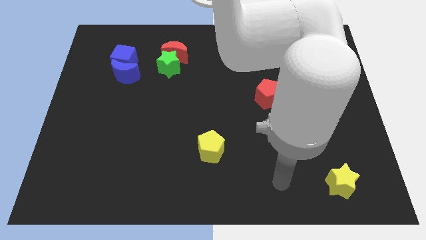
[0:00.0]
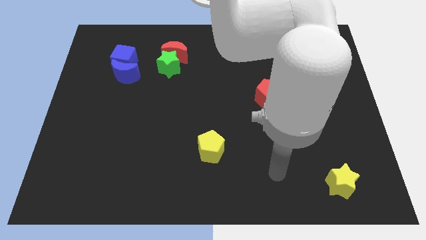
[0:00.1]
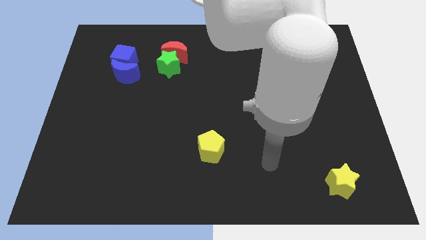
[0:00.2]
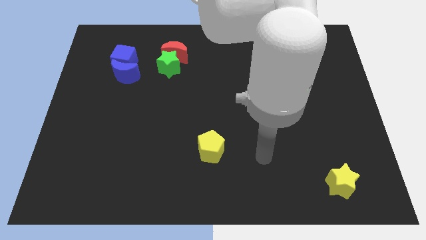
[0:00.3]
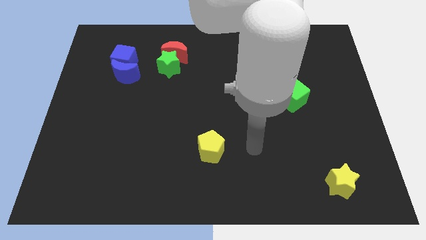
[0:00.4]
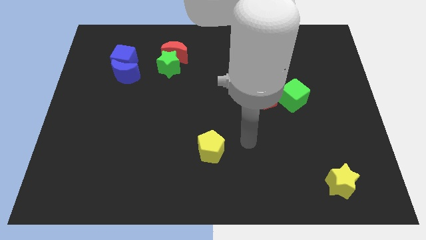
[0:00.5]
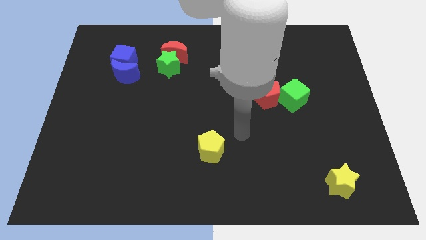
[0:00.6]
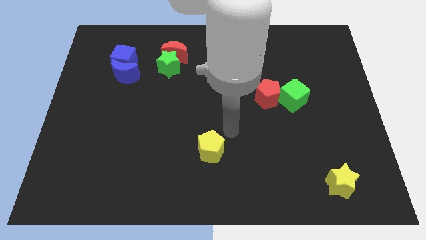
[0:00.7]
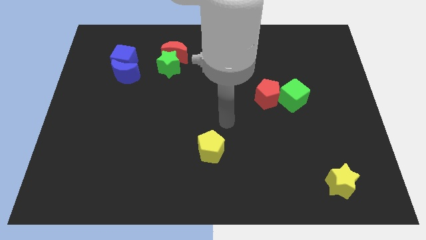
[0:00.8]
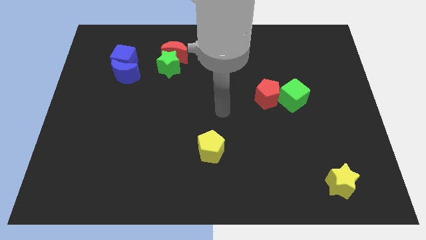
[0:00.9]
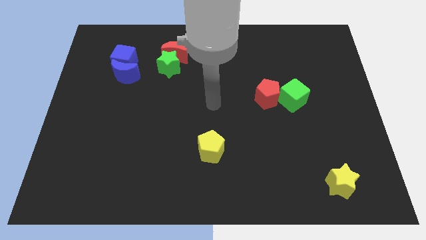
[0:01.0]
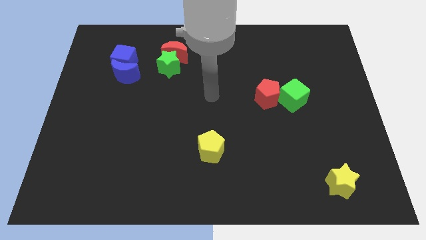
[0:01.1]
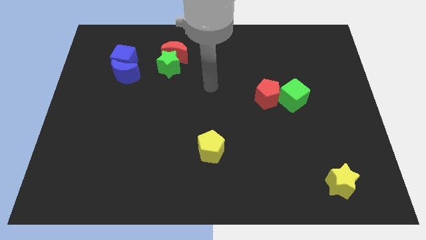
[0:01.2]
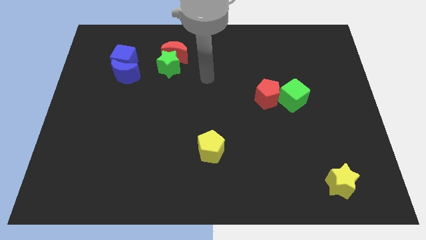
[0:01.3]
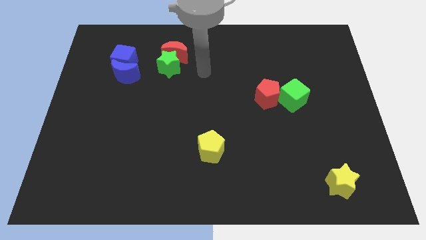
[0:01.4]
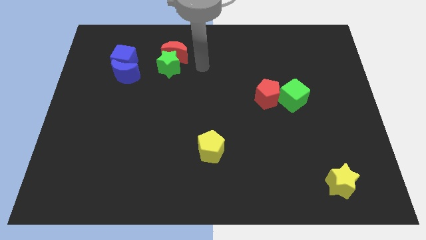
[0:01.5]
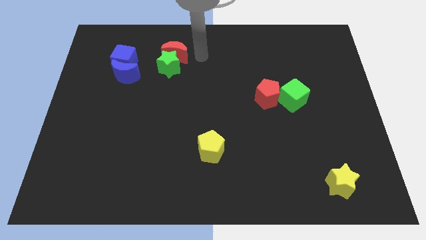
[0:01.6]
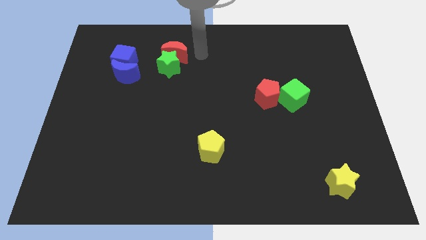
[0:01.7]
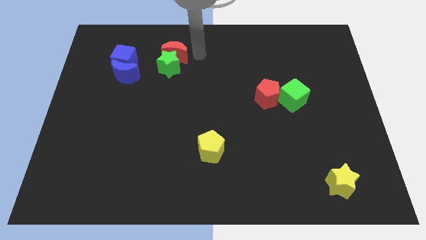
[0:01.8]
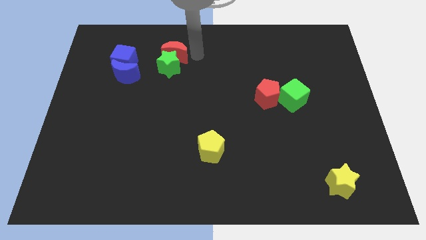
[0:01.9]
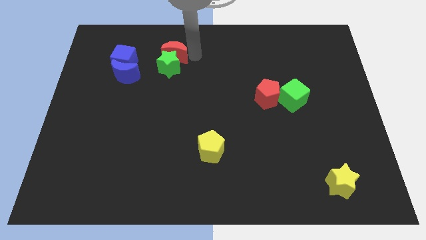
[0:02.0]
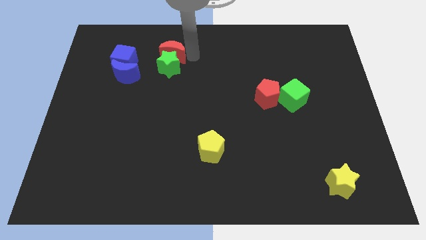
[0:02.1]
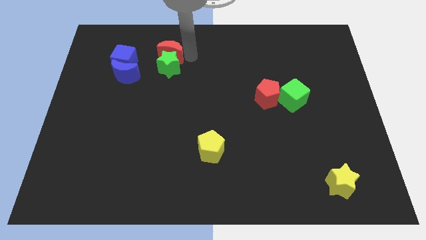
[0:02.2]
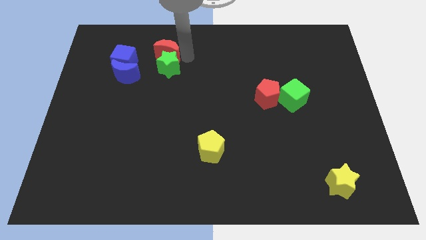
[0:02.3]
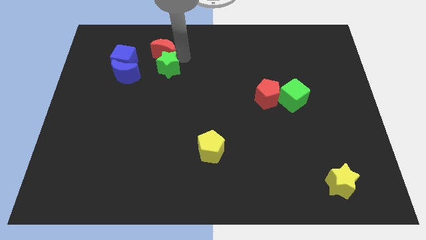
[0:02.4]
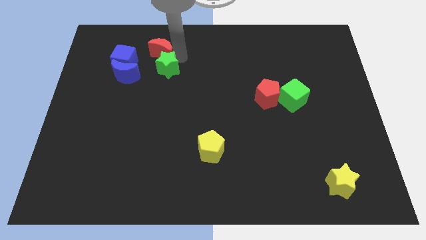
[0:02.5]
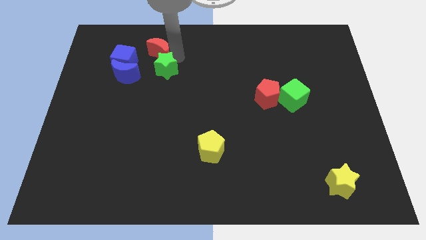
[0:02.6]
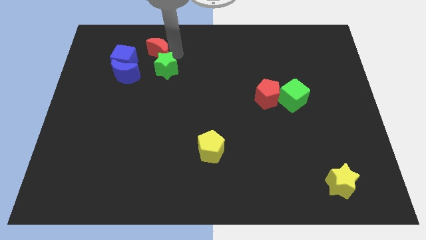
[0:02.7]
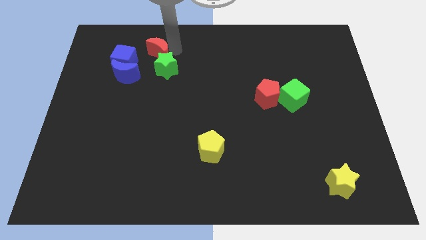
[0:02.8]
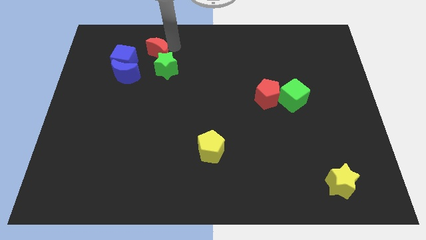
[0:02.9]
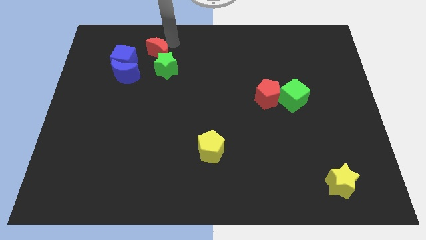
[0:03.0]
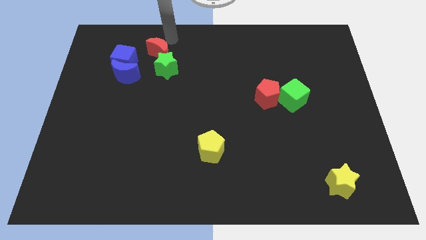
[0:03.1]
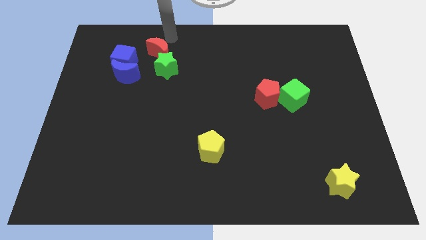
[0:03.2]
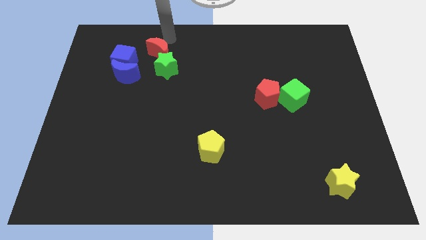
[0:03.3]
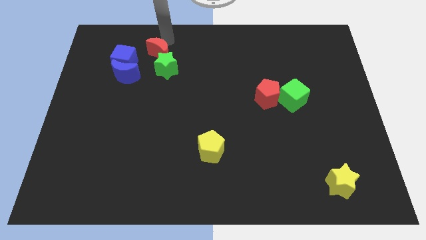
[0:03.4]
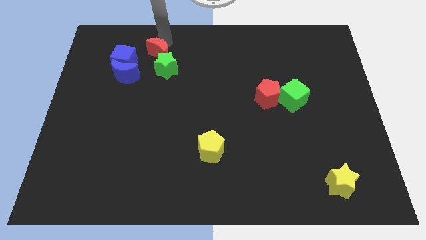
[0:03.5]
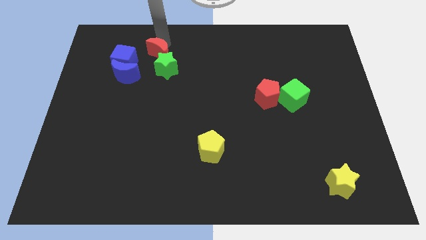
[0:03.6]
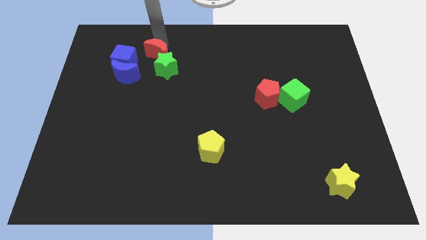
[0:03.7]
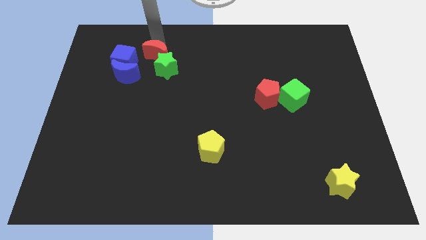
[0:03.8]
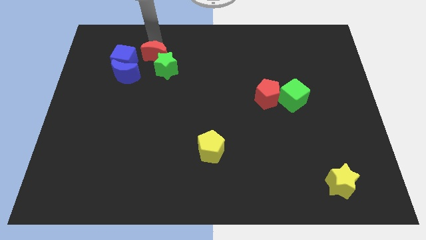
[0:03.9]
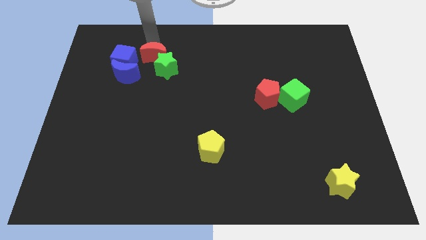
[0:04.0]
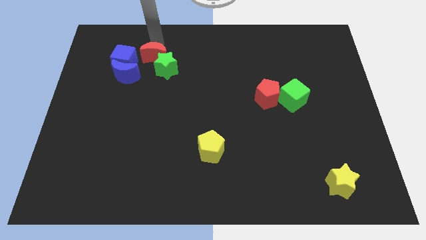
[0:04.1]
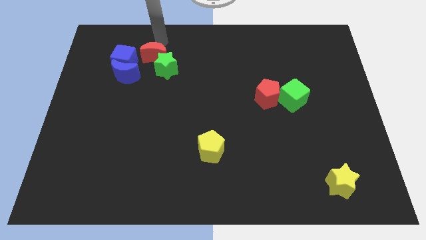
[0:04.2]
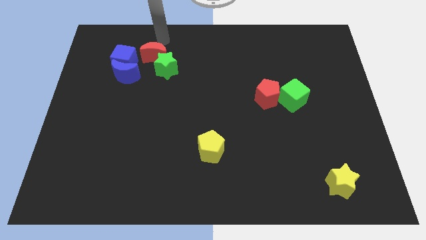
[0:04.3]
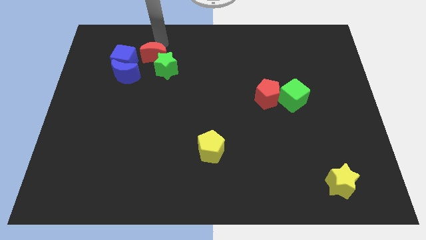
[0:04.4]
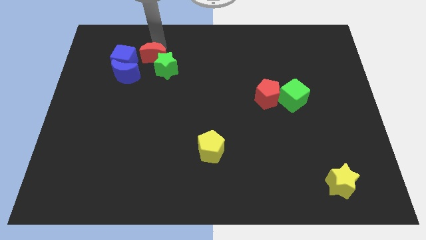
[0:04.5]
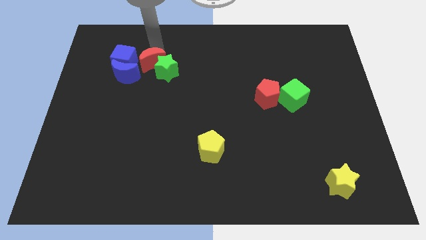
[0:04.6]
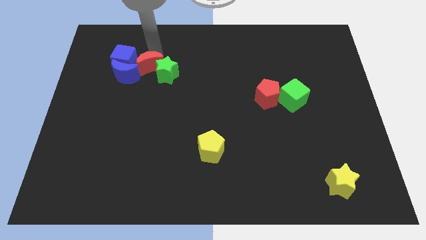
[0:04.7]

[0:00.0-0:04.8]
move the red moon downwards and then to the left slightly

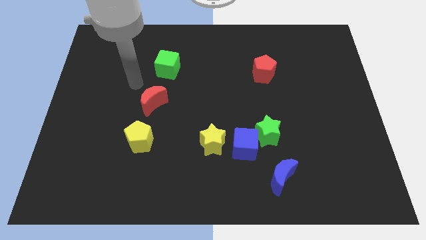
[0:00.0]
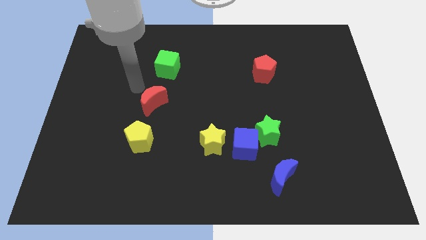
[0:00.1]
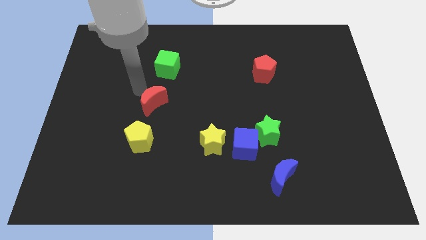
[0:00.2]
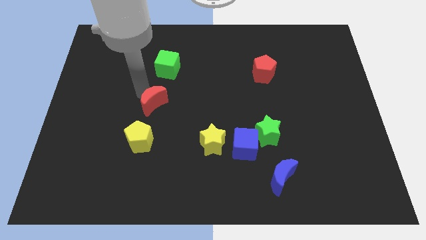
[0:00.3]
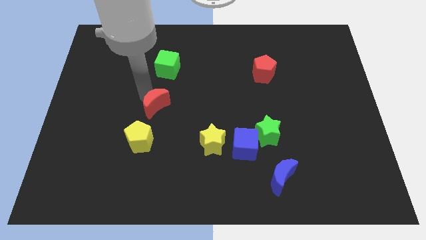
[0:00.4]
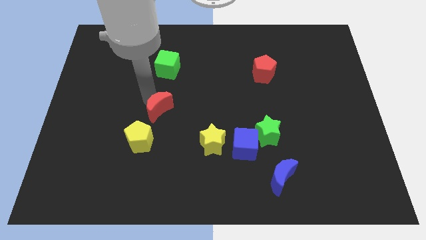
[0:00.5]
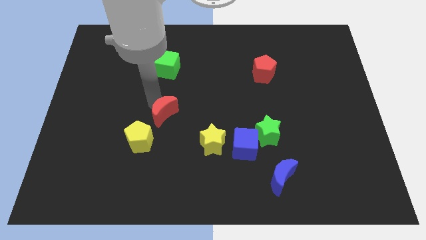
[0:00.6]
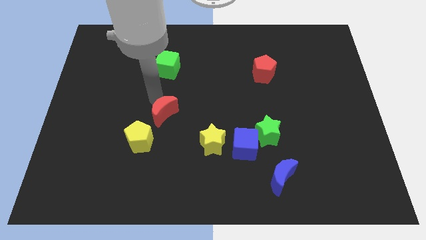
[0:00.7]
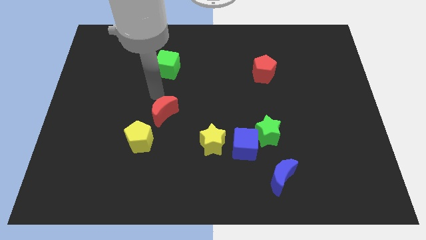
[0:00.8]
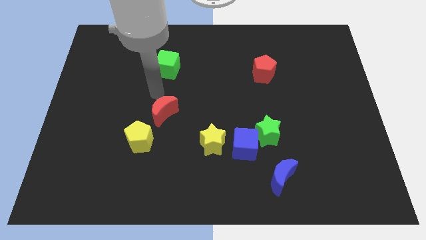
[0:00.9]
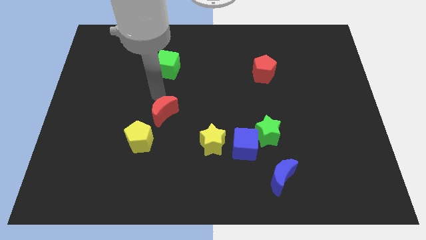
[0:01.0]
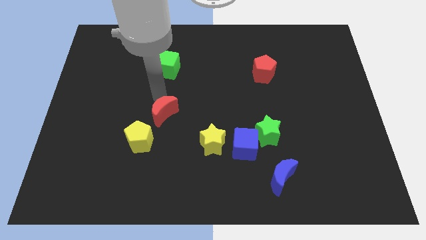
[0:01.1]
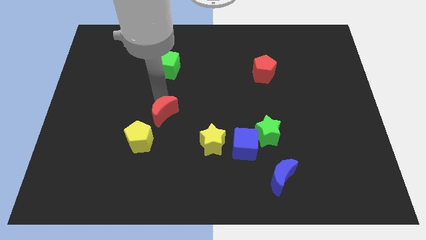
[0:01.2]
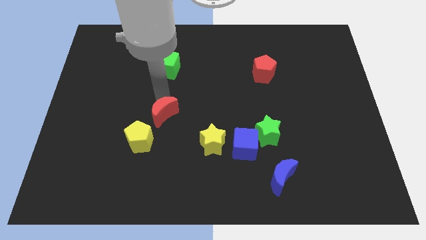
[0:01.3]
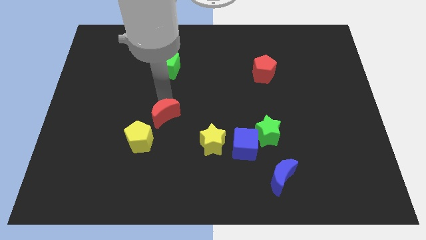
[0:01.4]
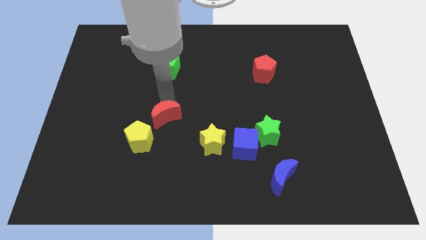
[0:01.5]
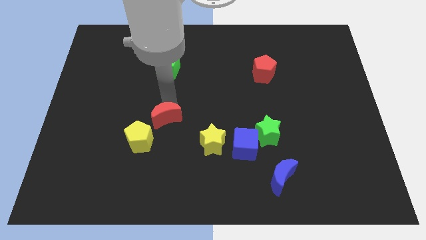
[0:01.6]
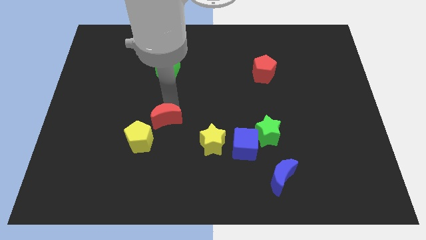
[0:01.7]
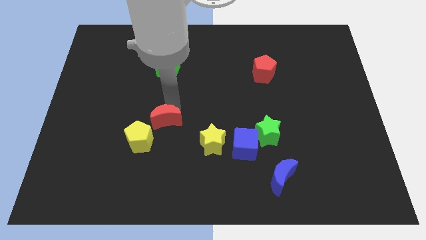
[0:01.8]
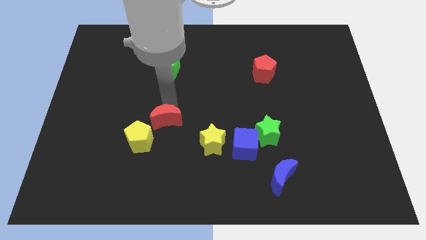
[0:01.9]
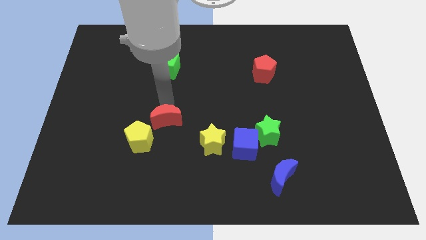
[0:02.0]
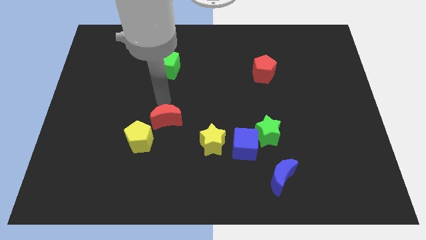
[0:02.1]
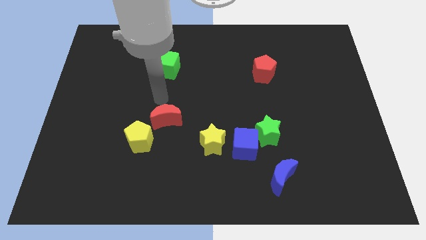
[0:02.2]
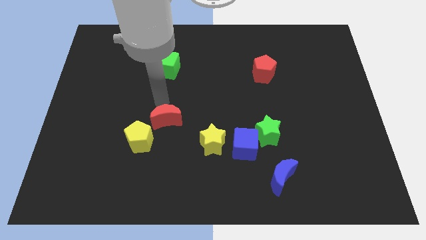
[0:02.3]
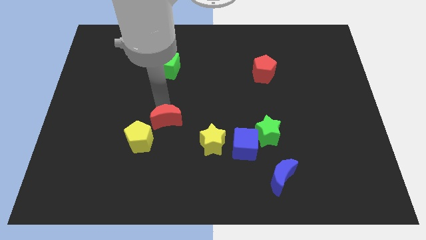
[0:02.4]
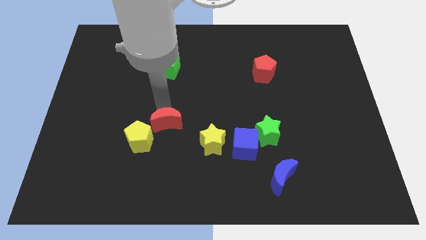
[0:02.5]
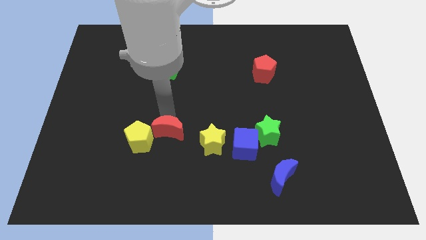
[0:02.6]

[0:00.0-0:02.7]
slide the red moon down a little bit

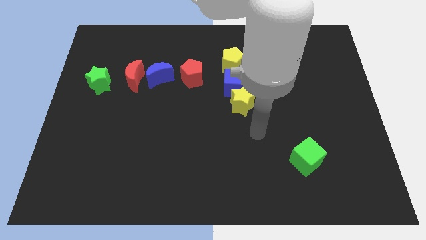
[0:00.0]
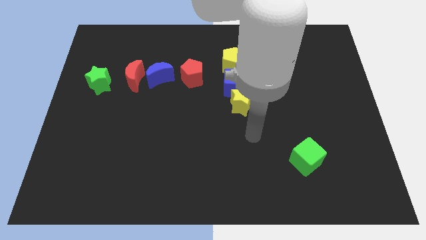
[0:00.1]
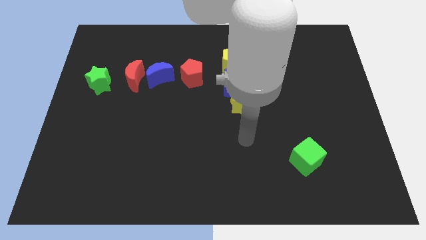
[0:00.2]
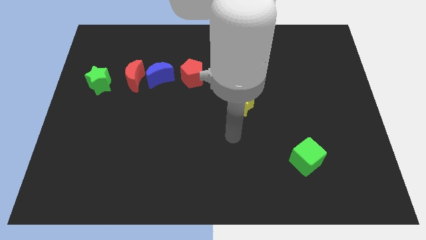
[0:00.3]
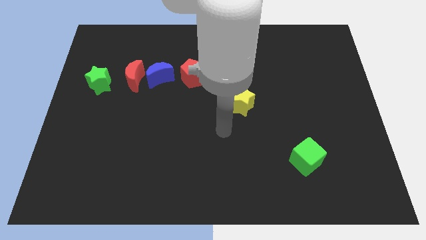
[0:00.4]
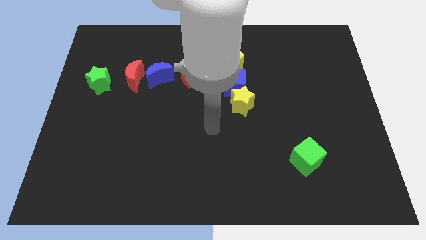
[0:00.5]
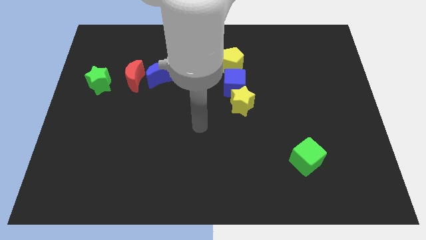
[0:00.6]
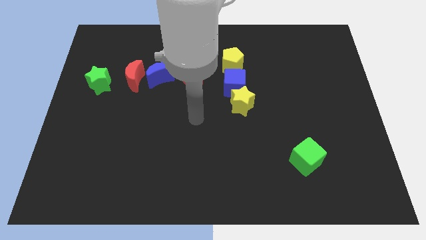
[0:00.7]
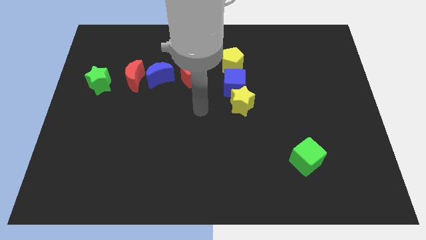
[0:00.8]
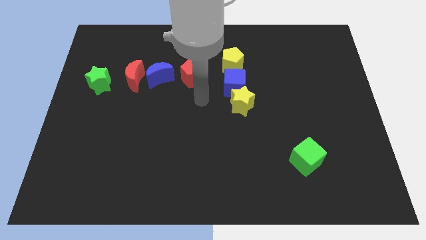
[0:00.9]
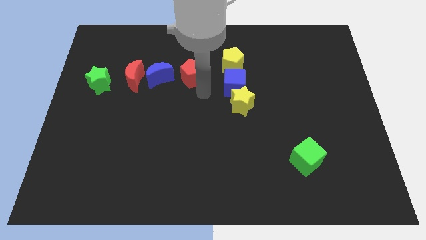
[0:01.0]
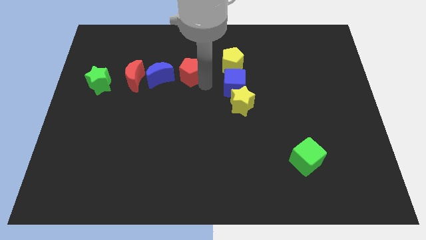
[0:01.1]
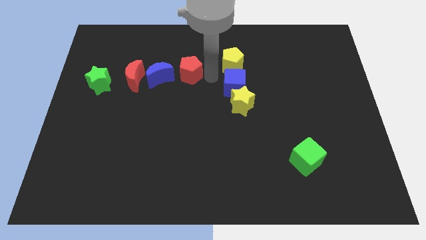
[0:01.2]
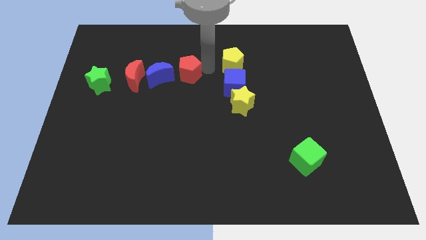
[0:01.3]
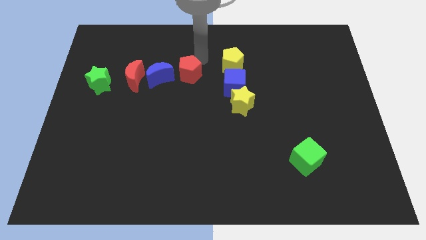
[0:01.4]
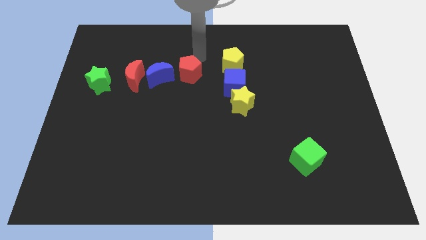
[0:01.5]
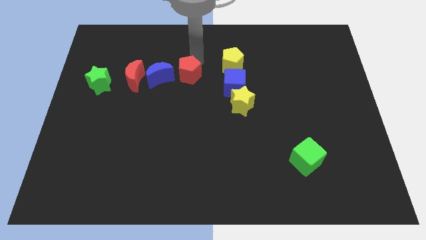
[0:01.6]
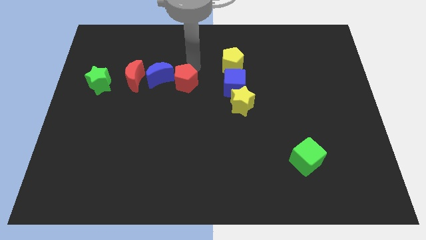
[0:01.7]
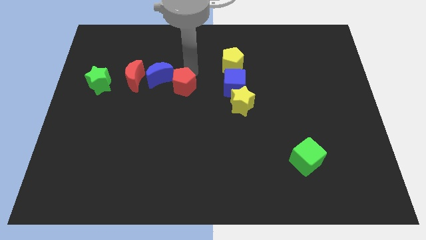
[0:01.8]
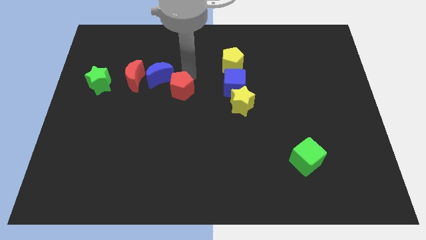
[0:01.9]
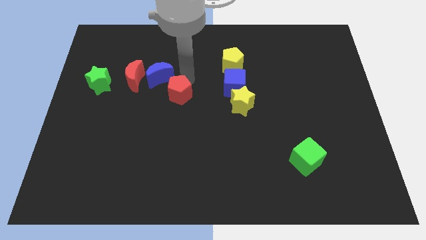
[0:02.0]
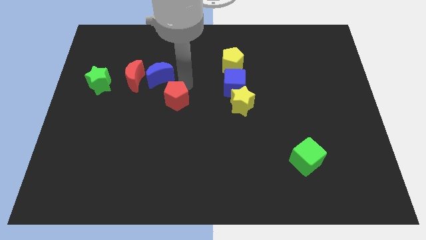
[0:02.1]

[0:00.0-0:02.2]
slide the red pentagon somewhat diagonally downwards and left
